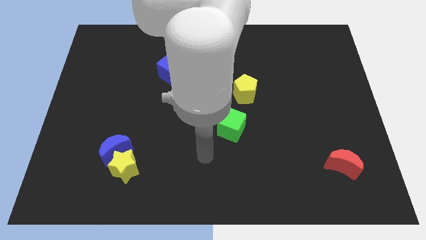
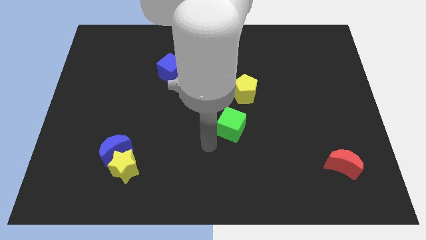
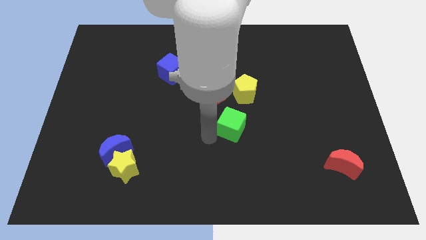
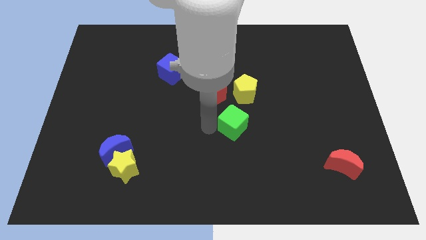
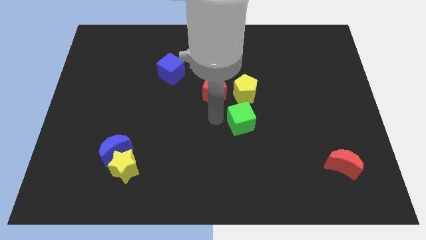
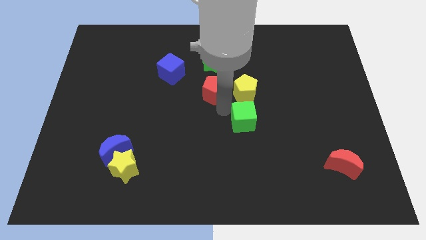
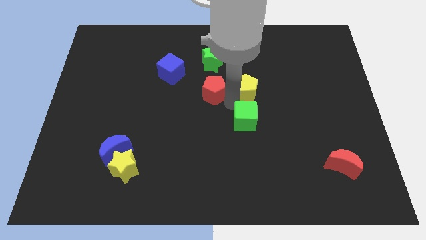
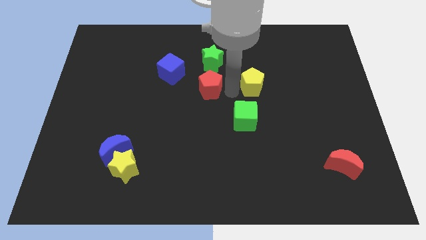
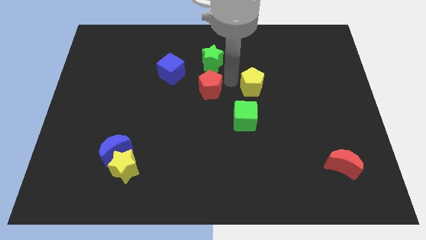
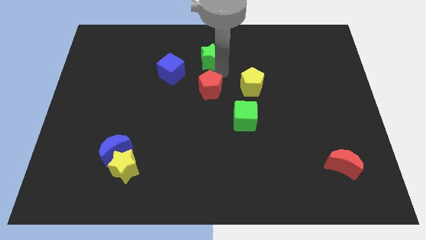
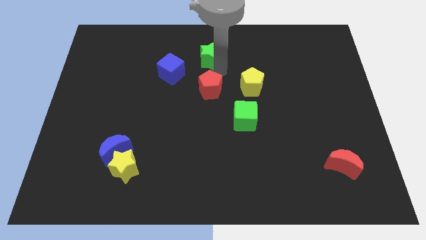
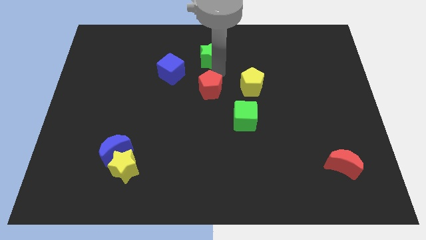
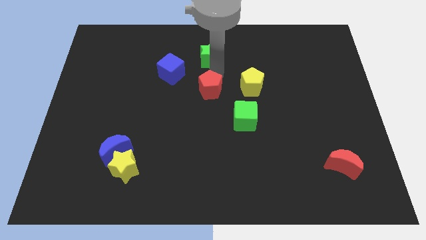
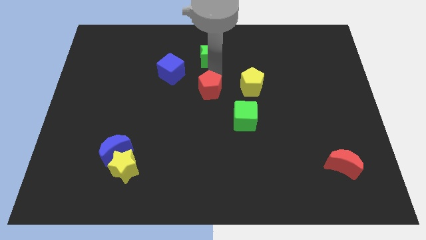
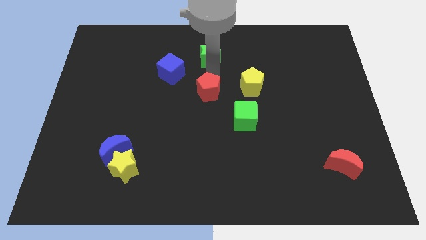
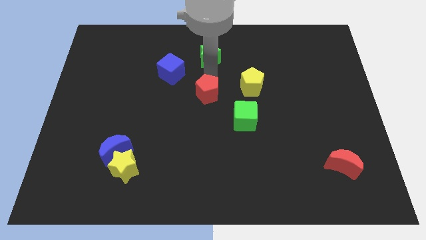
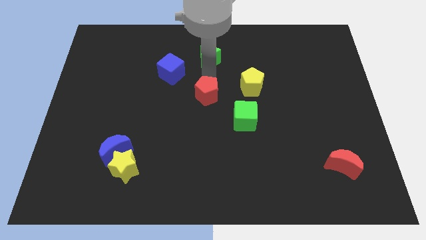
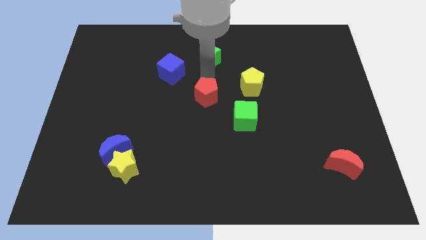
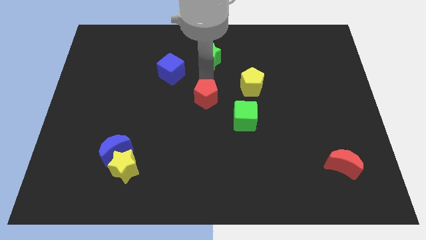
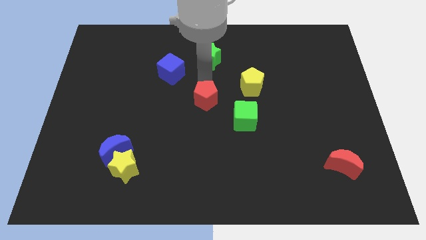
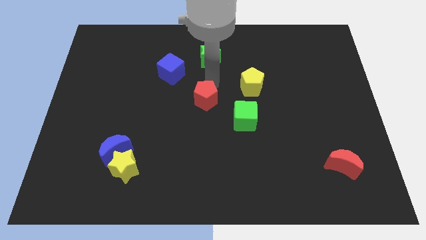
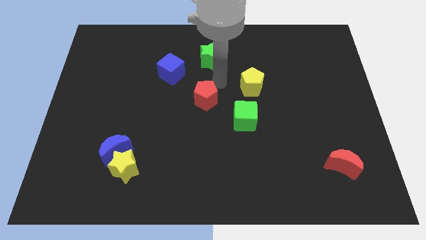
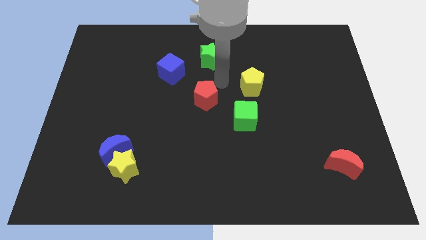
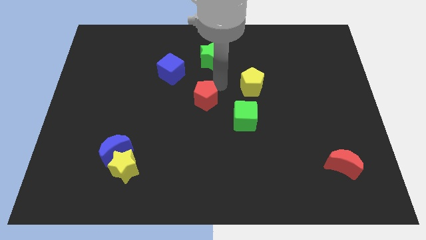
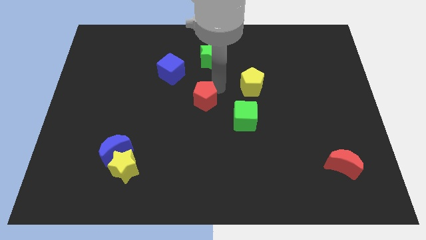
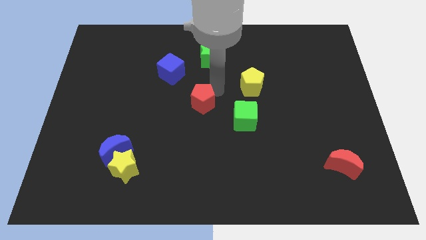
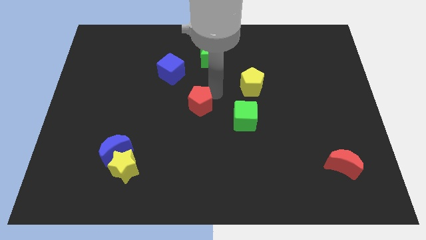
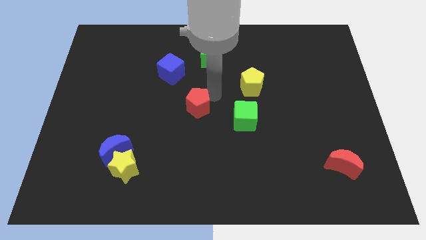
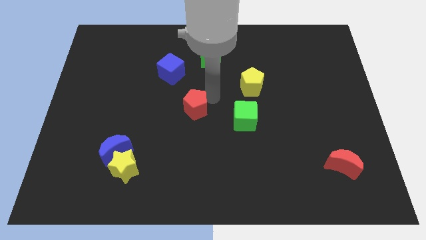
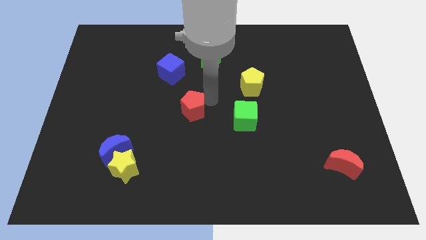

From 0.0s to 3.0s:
slightly slide the red pentagon downwards and to the left diagonally

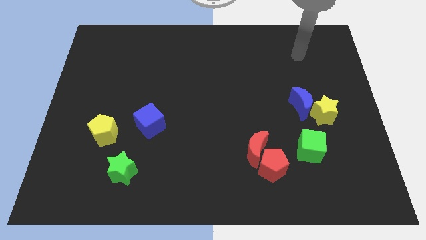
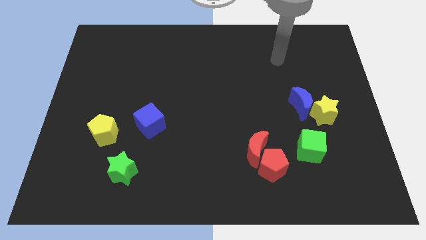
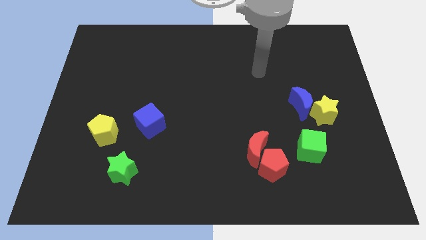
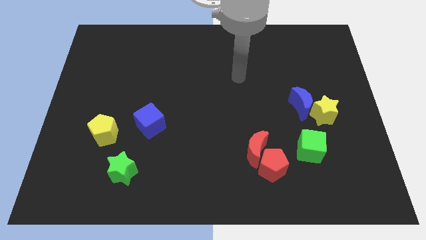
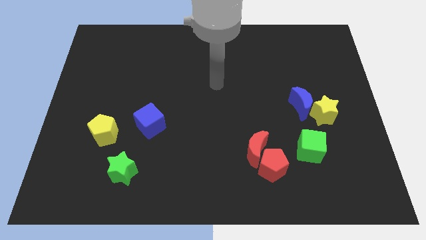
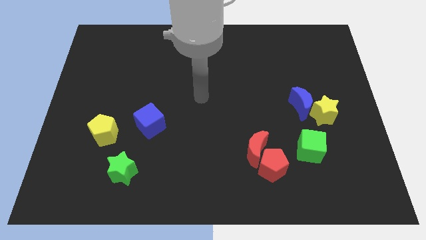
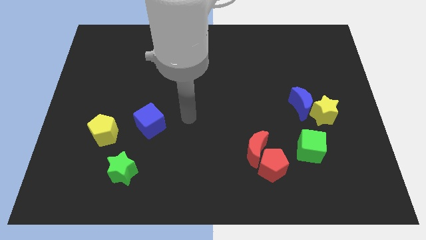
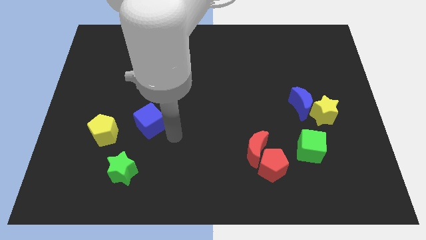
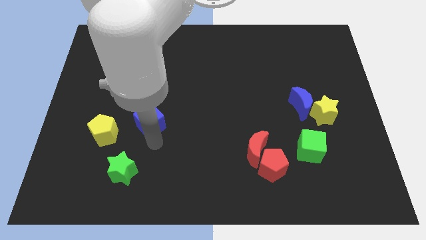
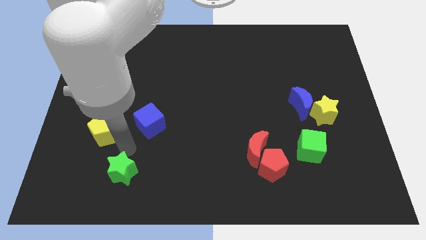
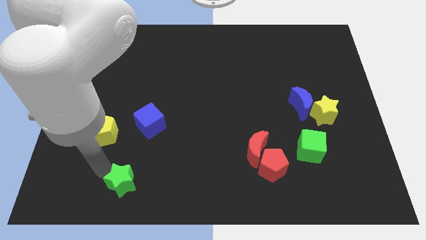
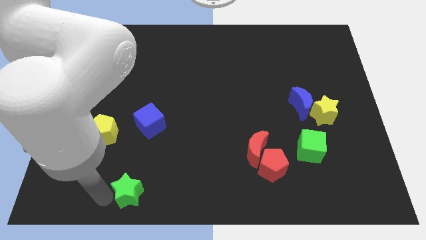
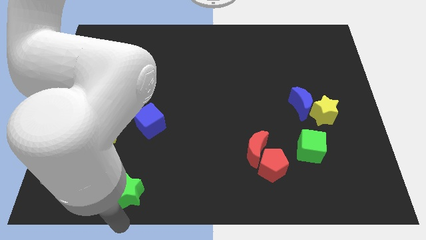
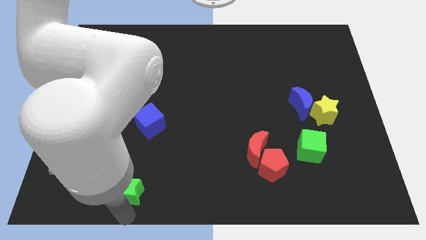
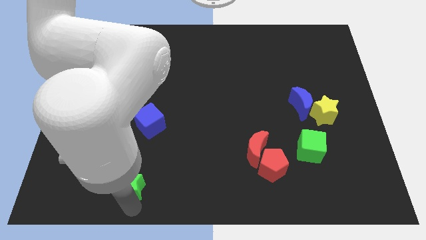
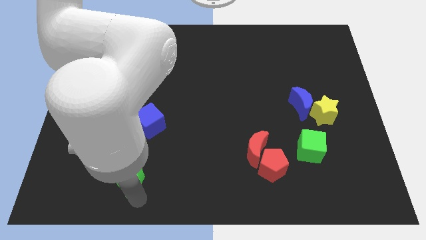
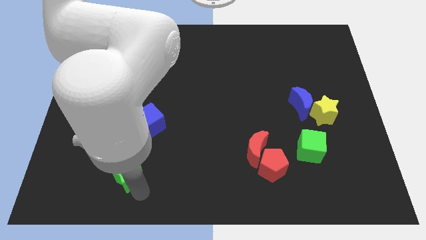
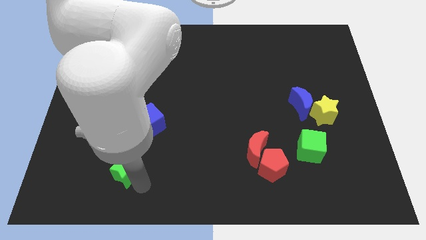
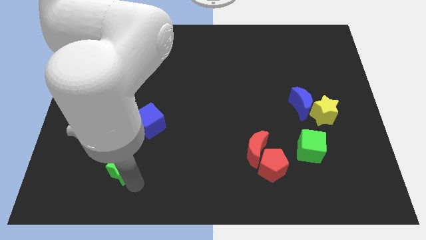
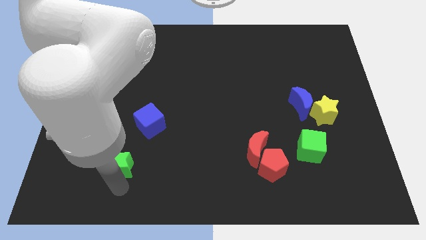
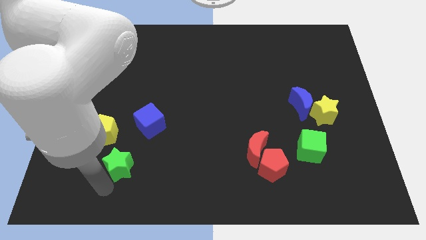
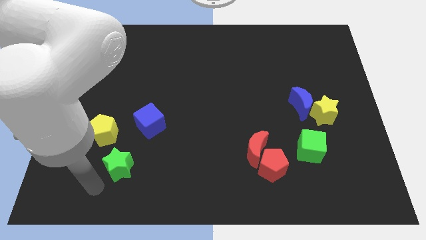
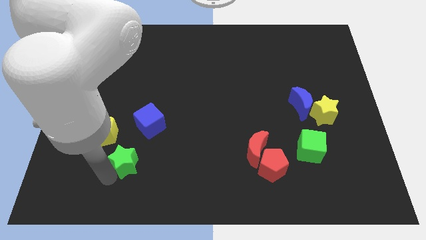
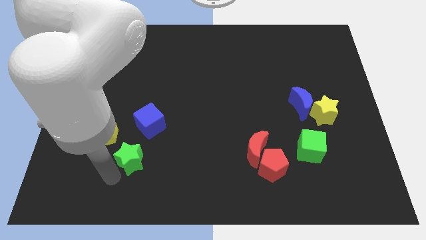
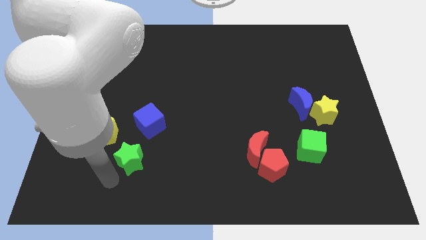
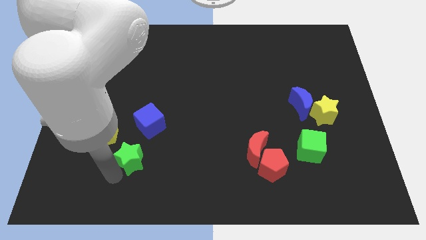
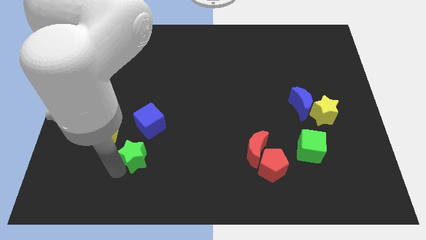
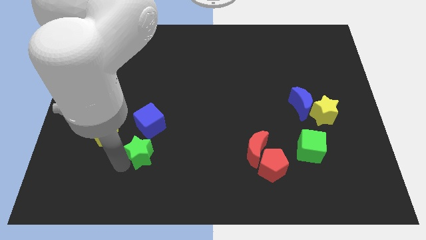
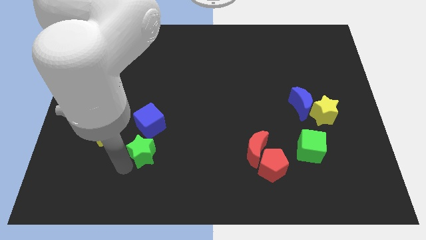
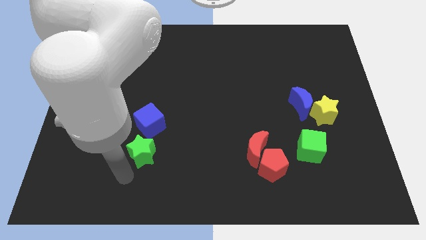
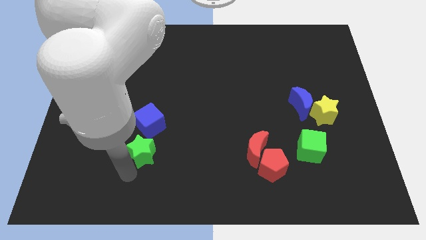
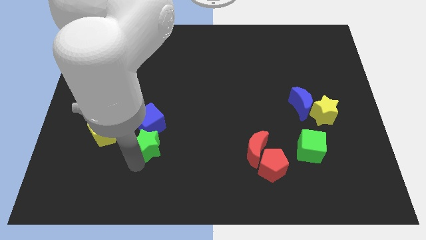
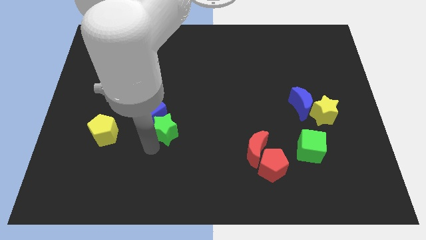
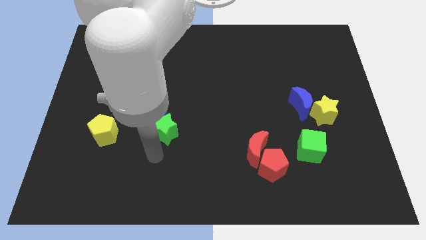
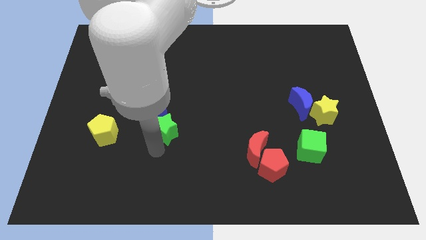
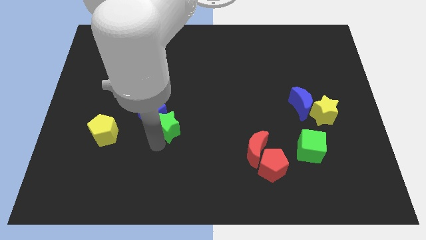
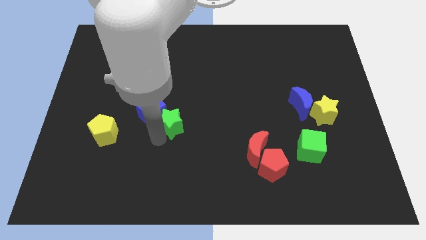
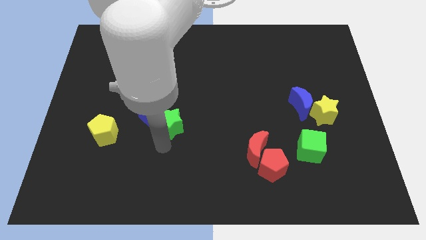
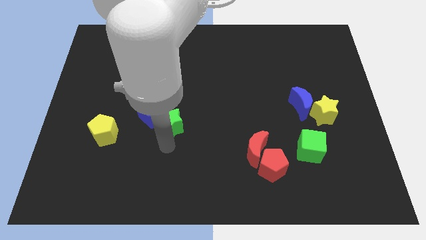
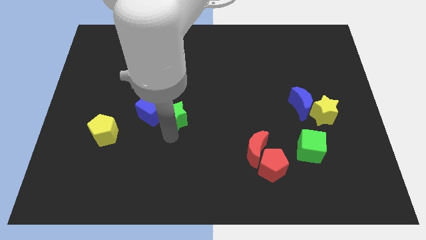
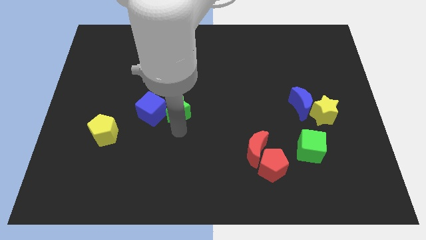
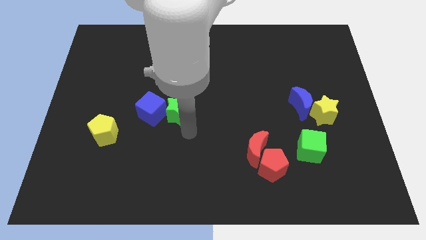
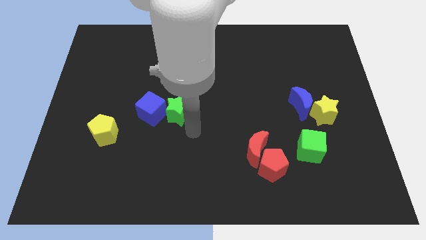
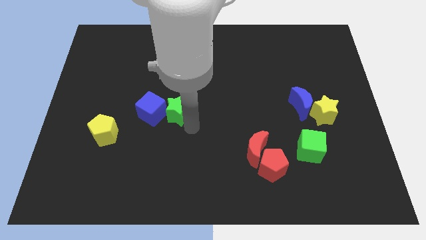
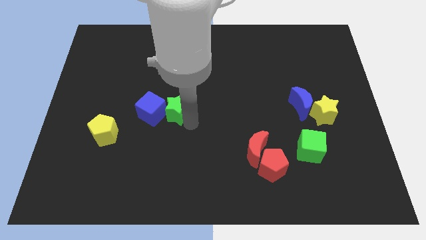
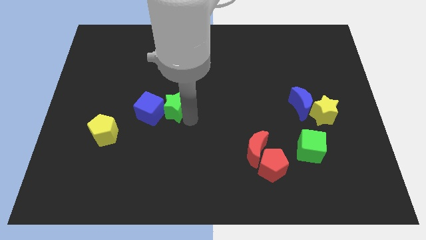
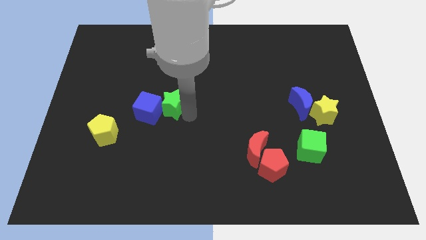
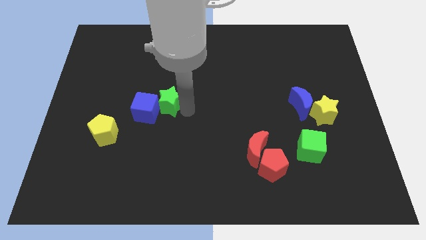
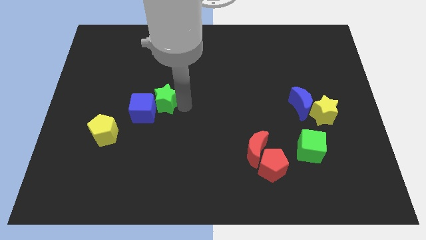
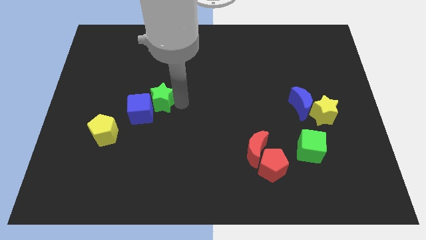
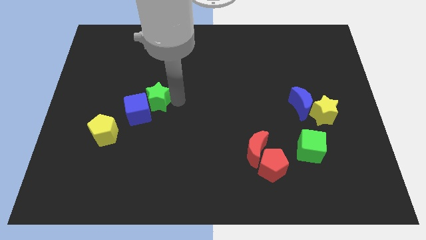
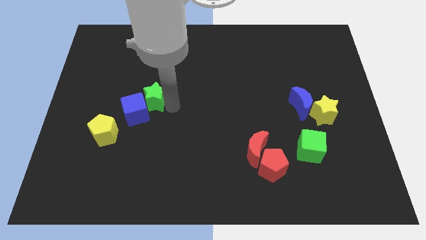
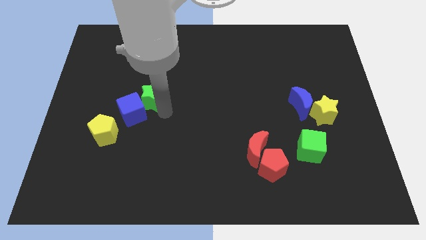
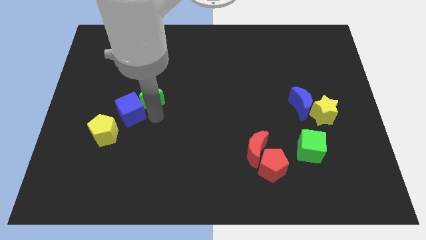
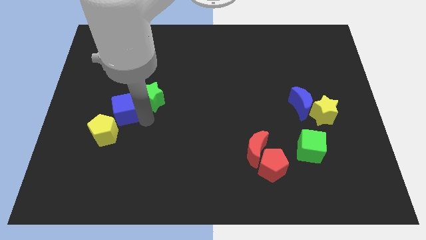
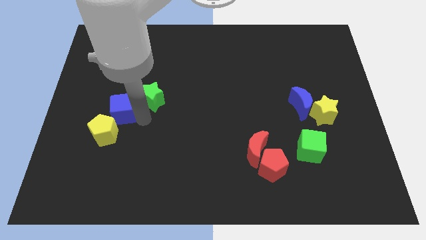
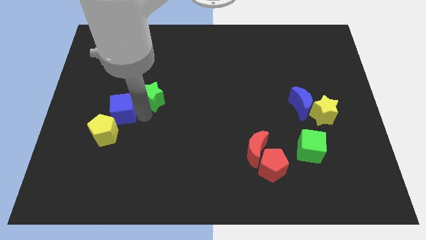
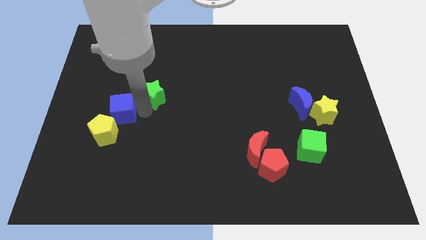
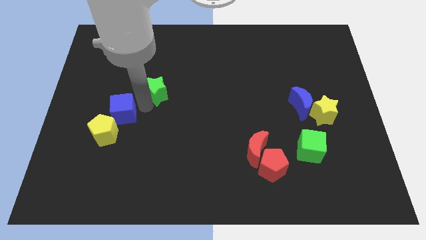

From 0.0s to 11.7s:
push the green star up
